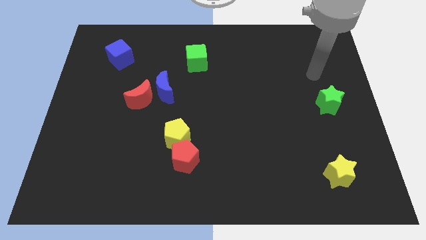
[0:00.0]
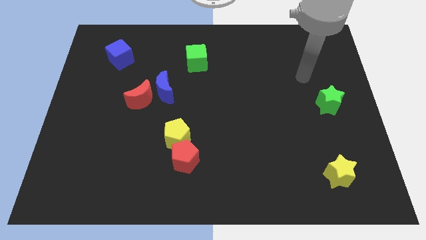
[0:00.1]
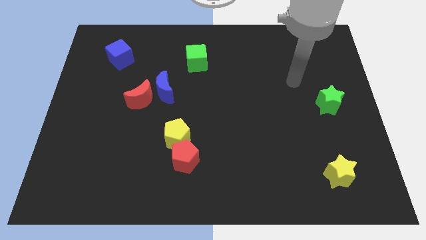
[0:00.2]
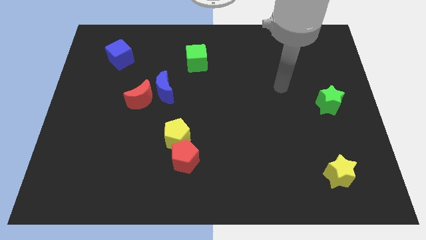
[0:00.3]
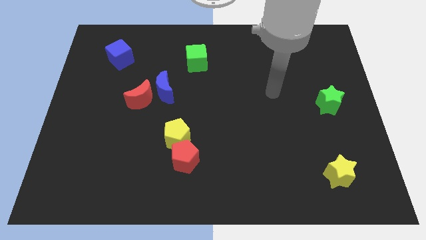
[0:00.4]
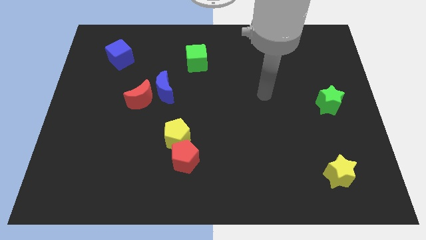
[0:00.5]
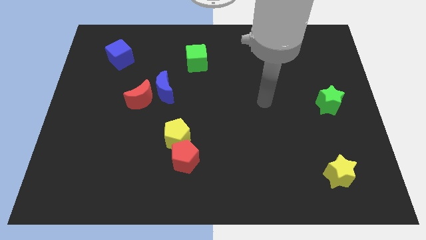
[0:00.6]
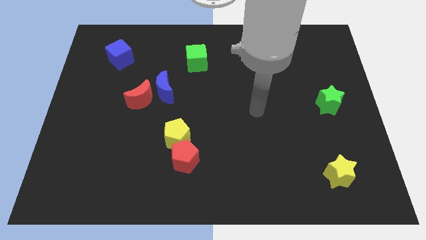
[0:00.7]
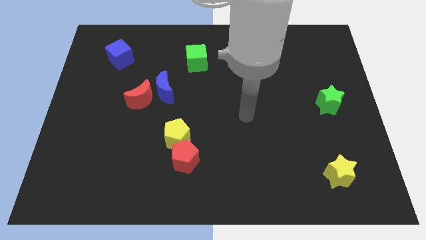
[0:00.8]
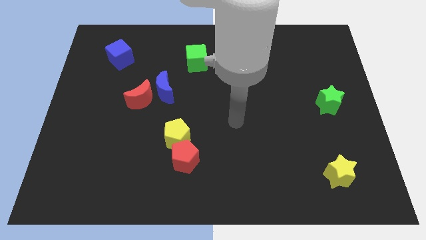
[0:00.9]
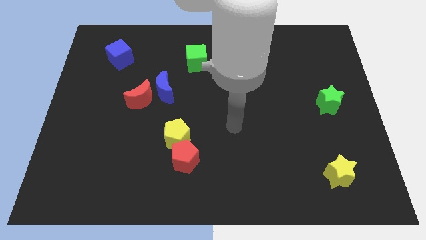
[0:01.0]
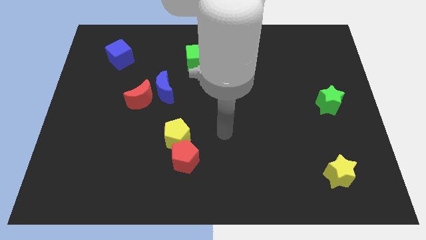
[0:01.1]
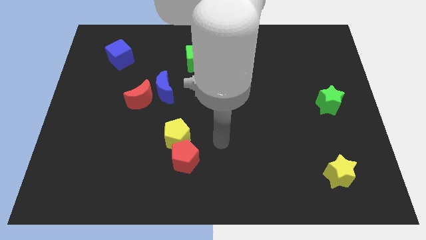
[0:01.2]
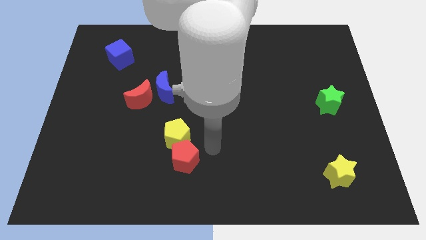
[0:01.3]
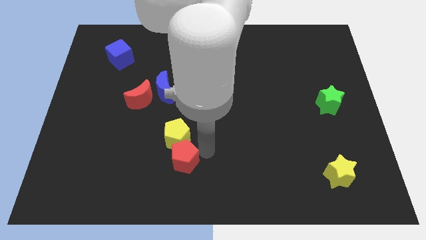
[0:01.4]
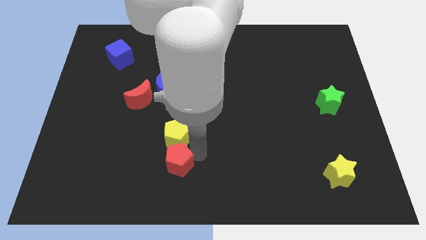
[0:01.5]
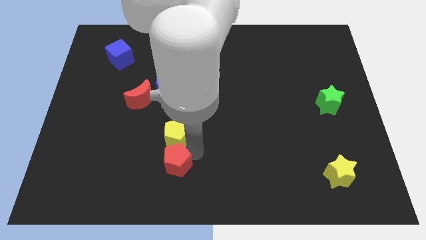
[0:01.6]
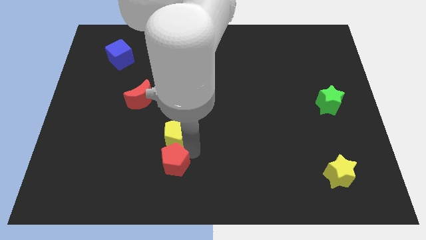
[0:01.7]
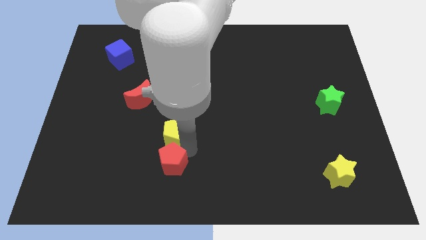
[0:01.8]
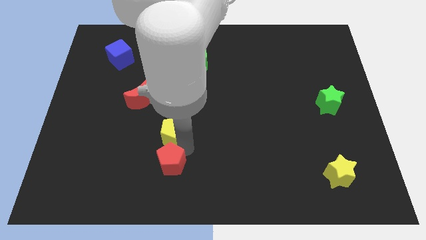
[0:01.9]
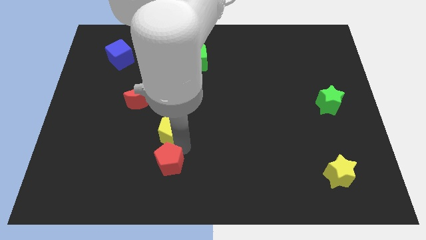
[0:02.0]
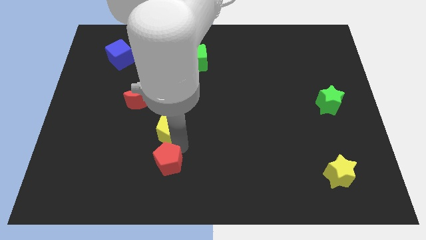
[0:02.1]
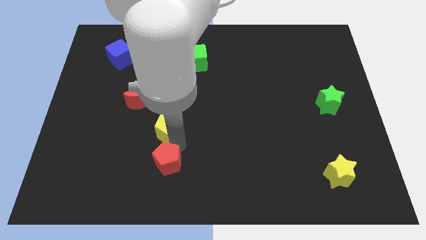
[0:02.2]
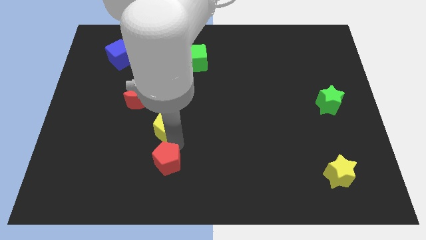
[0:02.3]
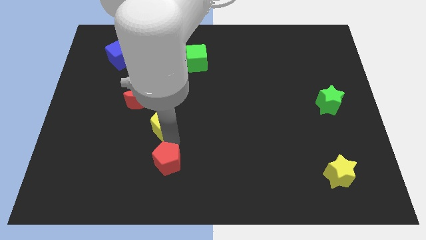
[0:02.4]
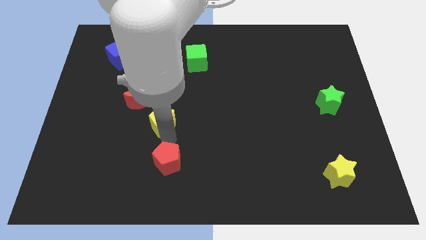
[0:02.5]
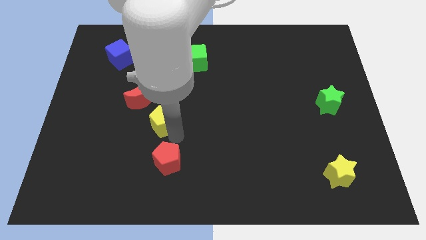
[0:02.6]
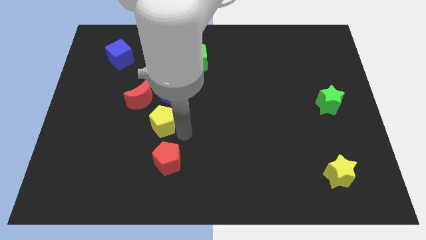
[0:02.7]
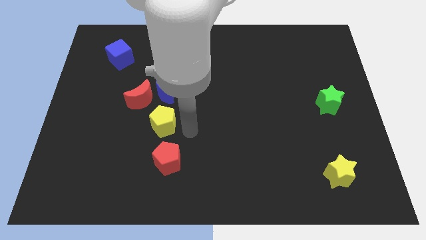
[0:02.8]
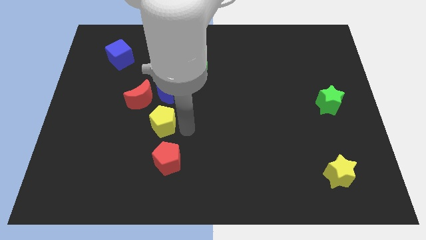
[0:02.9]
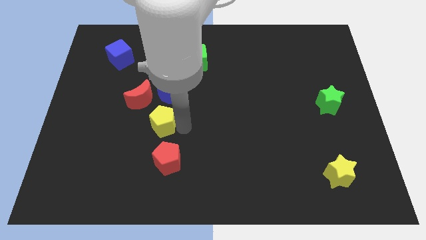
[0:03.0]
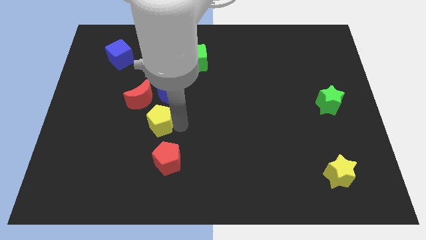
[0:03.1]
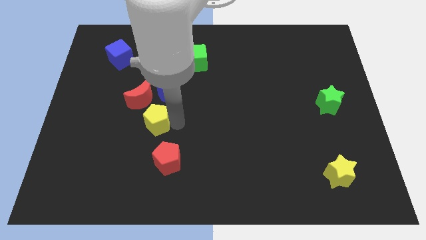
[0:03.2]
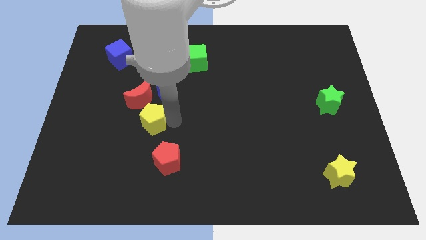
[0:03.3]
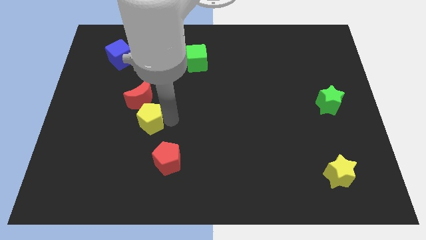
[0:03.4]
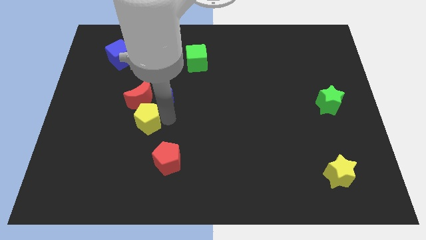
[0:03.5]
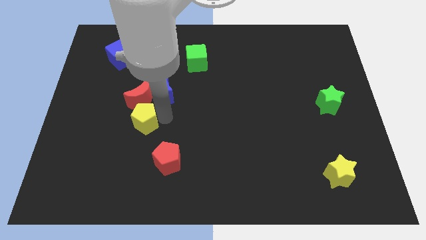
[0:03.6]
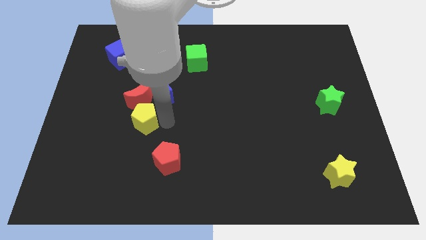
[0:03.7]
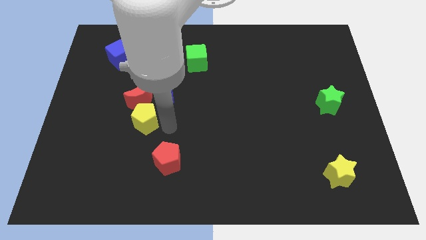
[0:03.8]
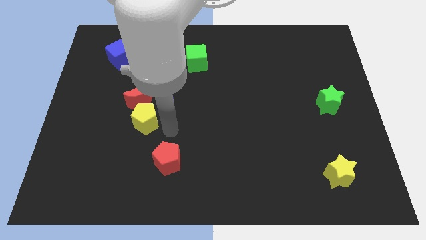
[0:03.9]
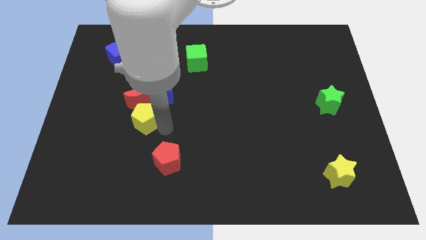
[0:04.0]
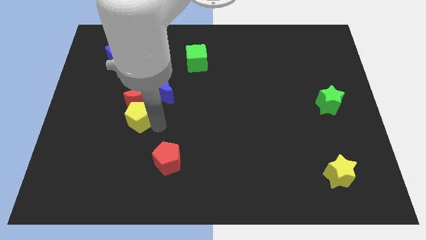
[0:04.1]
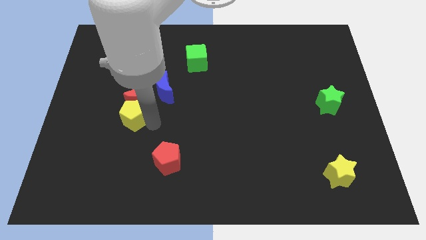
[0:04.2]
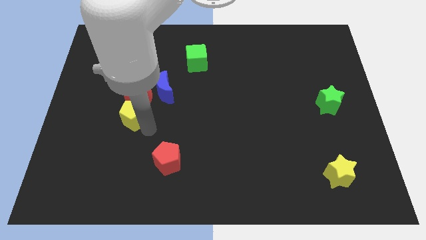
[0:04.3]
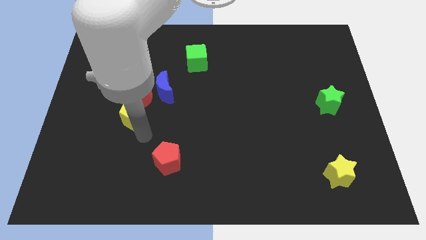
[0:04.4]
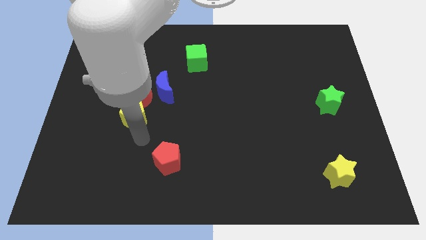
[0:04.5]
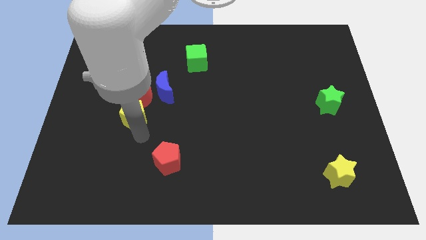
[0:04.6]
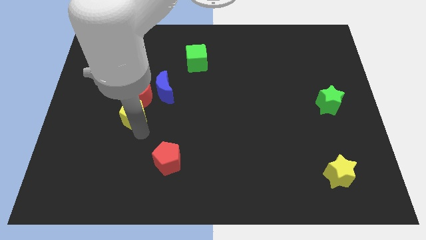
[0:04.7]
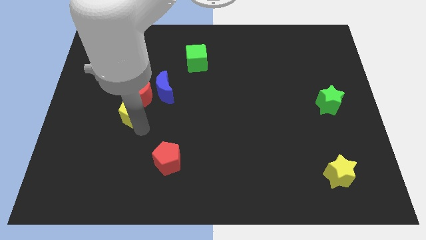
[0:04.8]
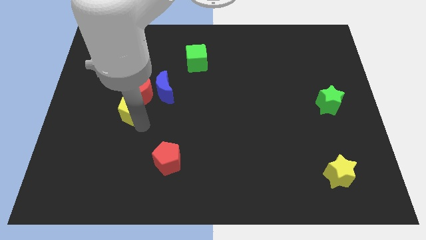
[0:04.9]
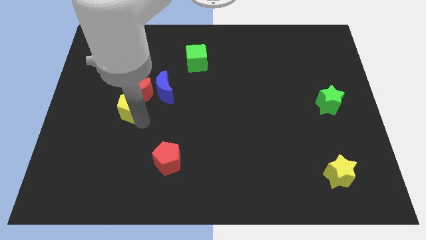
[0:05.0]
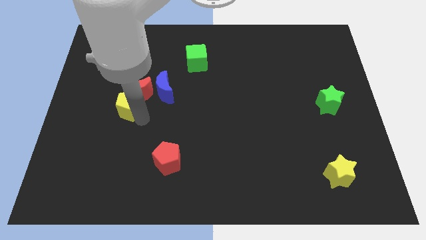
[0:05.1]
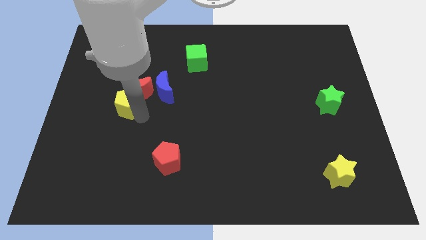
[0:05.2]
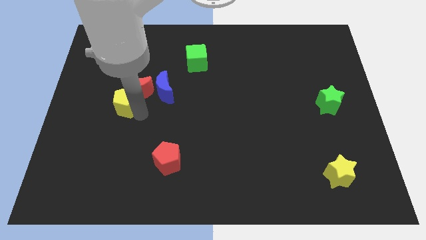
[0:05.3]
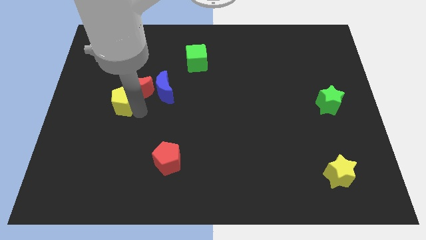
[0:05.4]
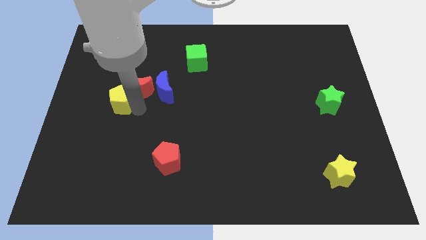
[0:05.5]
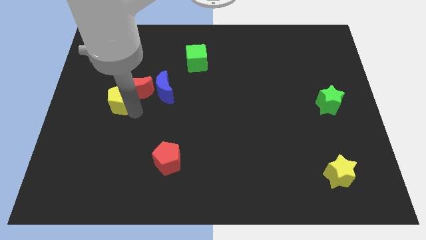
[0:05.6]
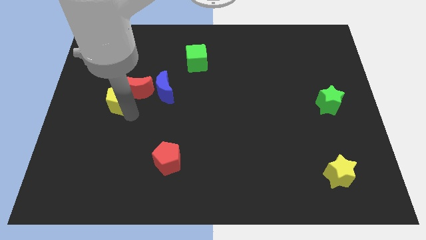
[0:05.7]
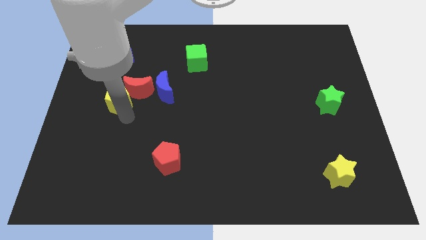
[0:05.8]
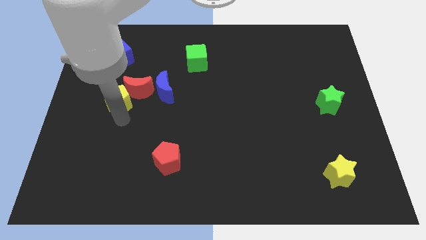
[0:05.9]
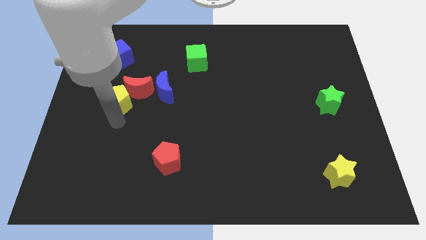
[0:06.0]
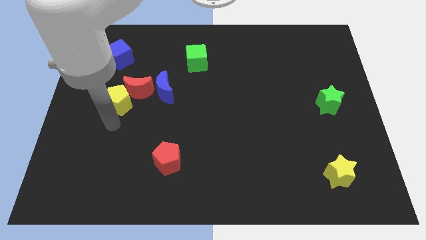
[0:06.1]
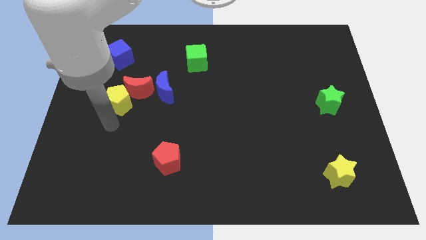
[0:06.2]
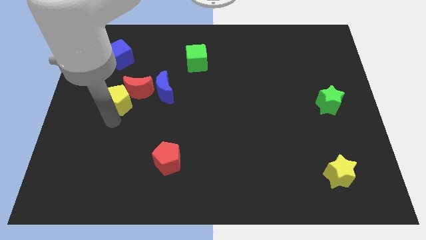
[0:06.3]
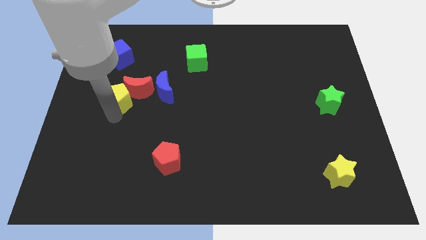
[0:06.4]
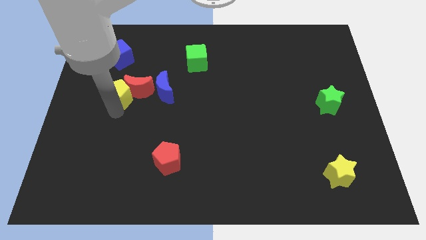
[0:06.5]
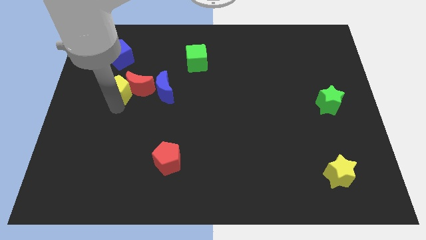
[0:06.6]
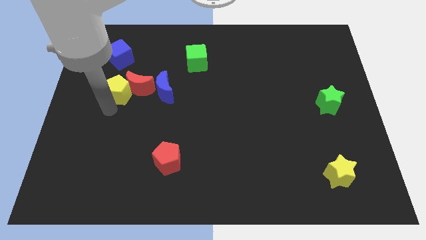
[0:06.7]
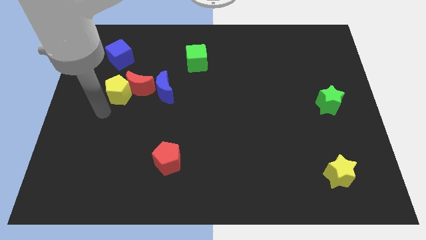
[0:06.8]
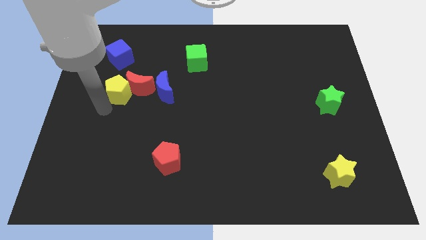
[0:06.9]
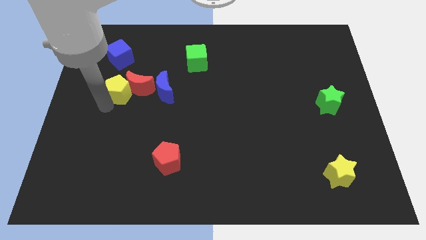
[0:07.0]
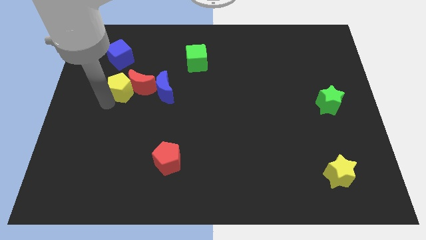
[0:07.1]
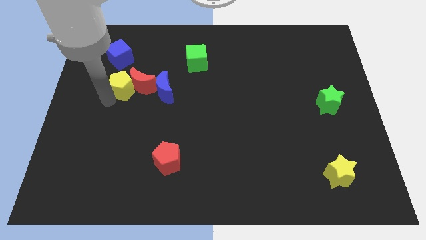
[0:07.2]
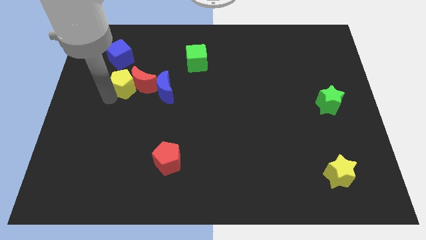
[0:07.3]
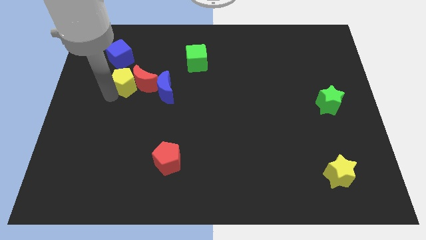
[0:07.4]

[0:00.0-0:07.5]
put the yellow pentagon to the bottom right side of the blue cube
